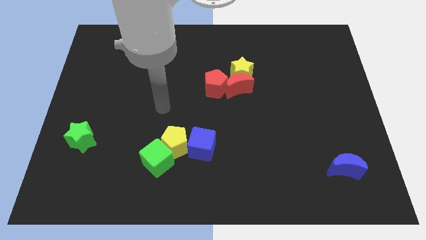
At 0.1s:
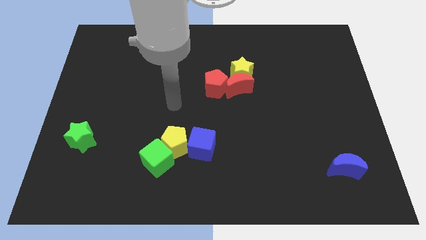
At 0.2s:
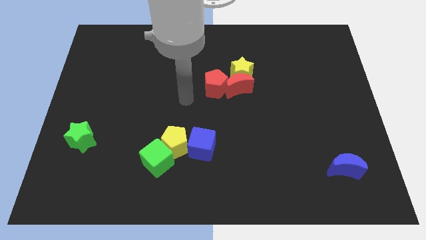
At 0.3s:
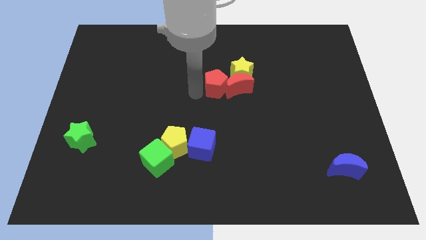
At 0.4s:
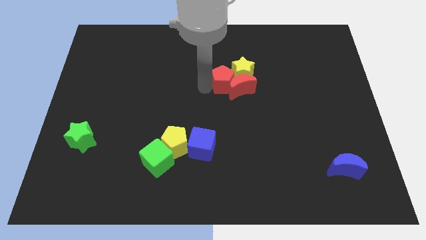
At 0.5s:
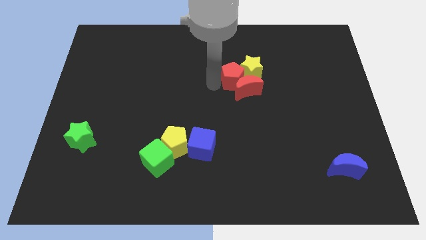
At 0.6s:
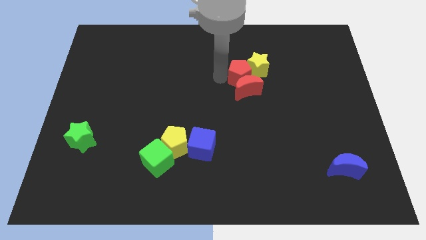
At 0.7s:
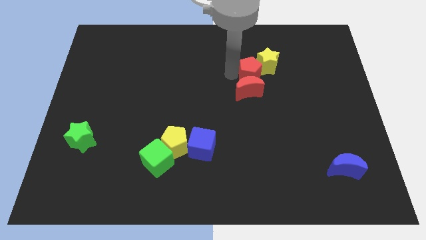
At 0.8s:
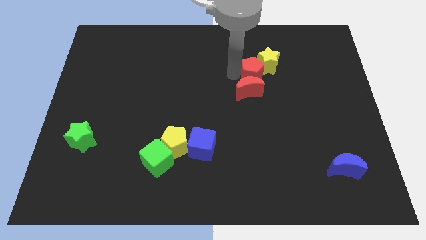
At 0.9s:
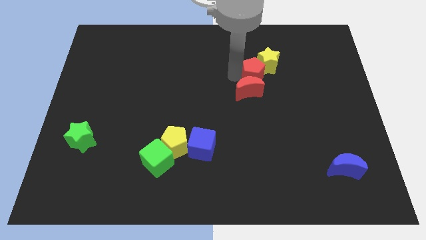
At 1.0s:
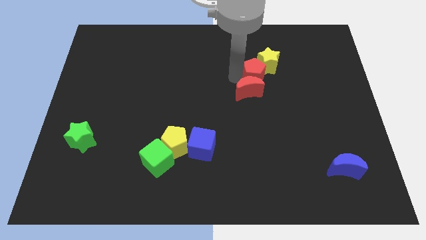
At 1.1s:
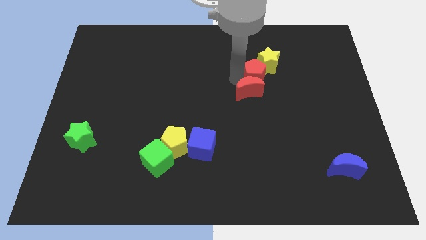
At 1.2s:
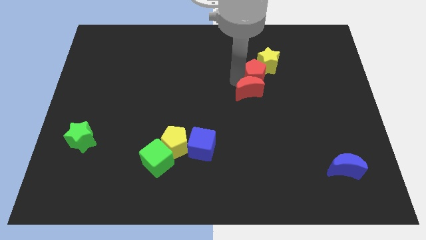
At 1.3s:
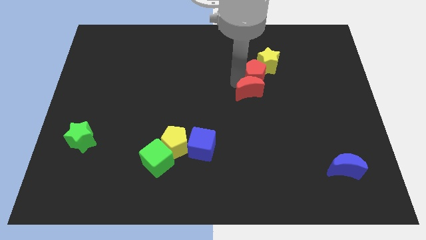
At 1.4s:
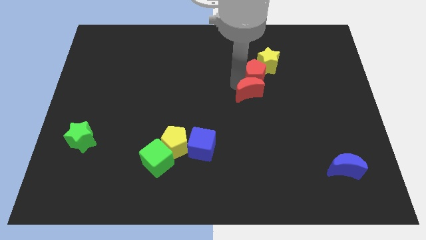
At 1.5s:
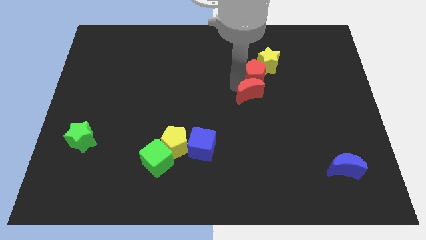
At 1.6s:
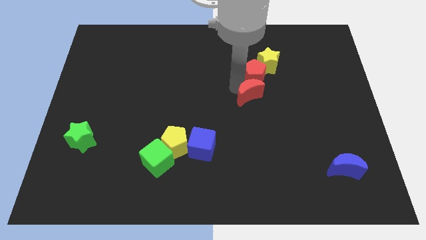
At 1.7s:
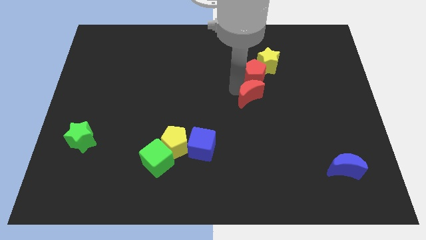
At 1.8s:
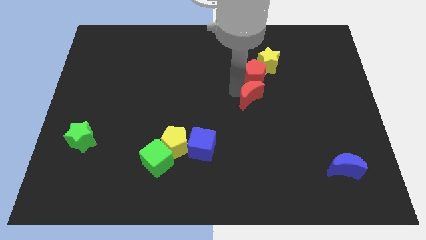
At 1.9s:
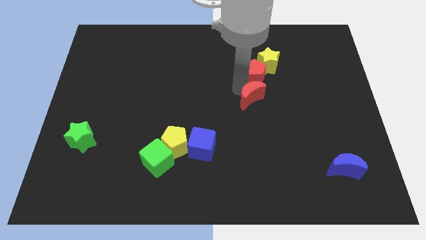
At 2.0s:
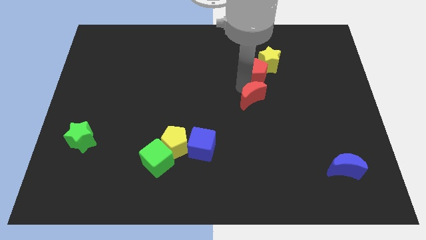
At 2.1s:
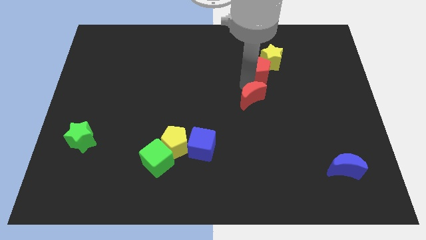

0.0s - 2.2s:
pull the red moon apart from the yellow star and red pentagon

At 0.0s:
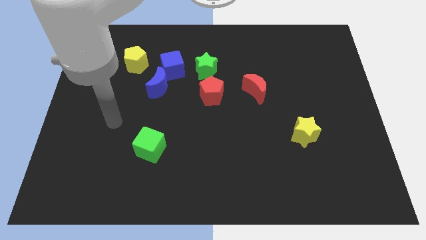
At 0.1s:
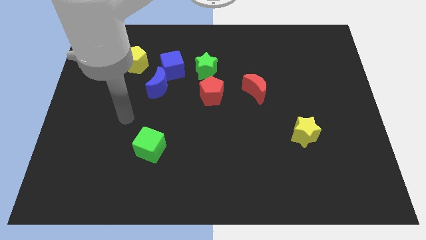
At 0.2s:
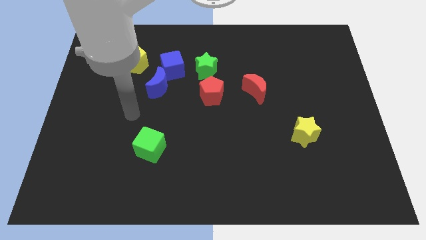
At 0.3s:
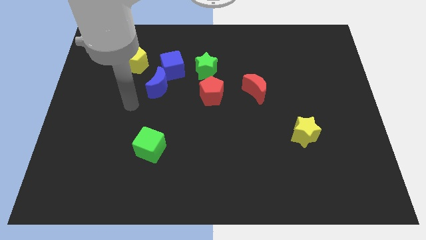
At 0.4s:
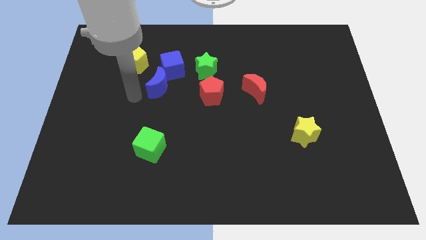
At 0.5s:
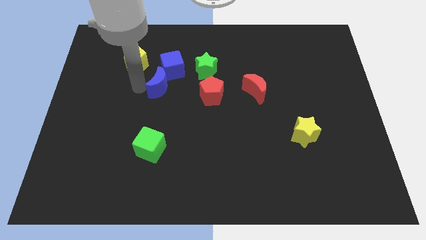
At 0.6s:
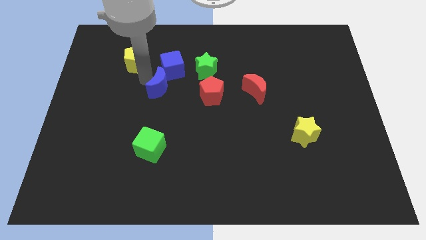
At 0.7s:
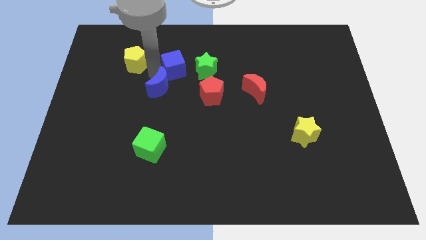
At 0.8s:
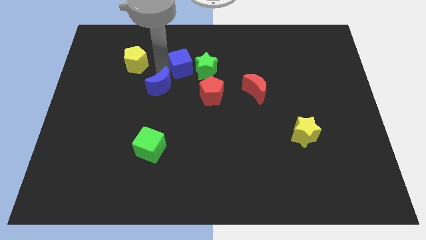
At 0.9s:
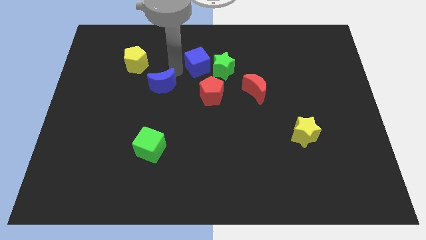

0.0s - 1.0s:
separate the blue moon from the blue cube

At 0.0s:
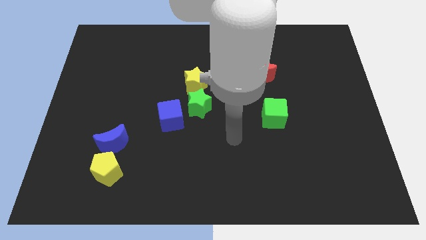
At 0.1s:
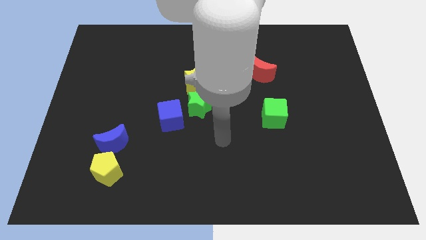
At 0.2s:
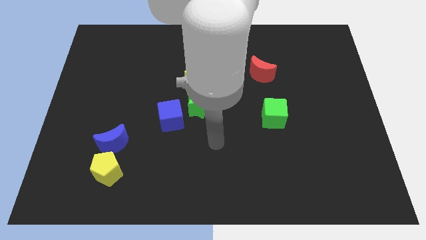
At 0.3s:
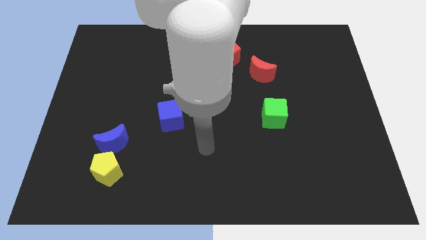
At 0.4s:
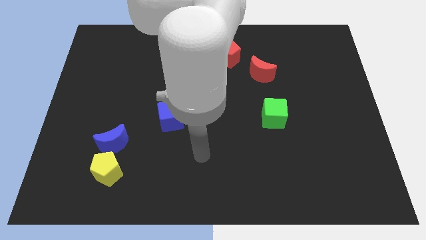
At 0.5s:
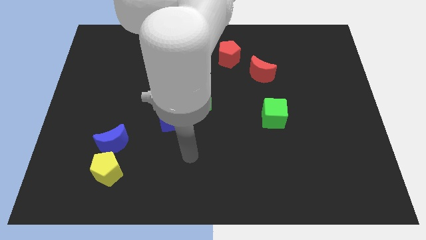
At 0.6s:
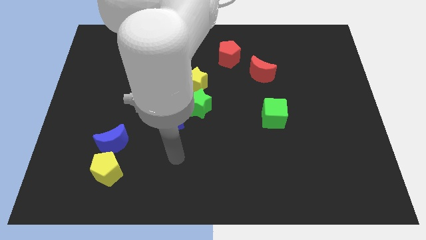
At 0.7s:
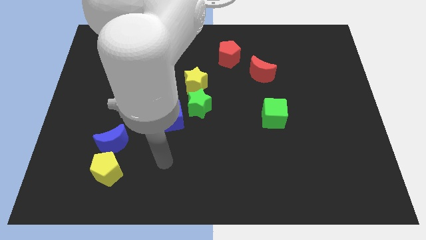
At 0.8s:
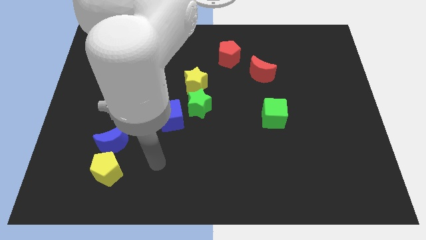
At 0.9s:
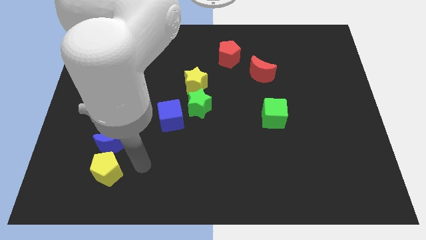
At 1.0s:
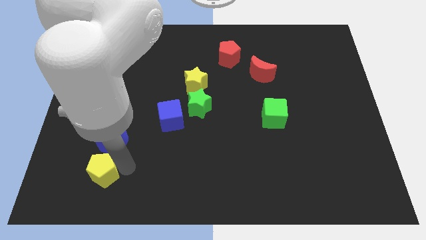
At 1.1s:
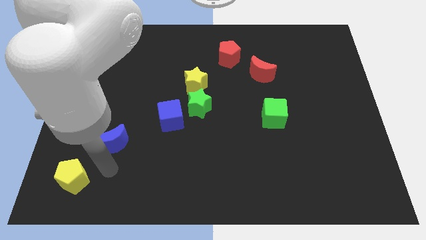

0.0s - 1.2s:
separate the blue moon from the yellow pentagon

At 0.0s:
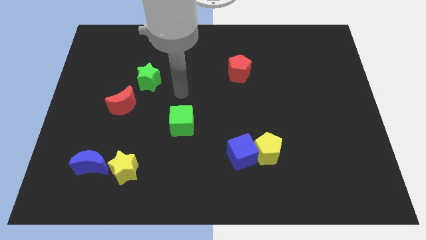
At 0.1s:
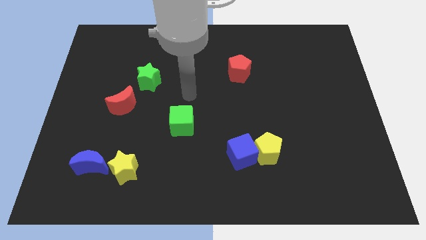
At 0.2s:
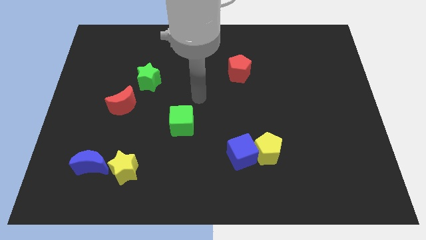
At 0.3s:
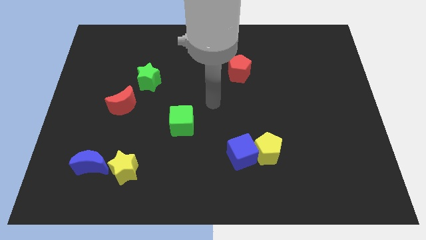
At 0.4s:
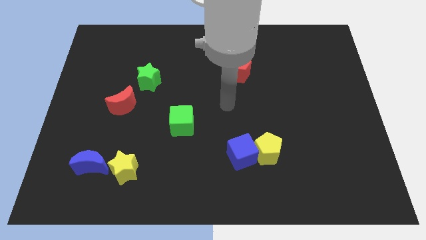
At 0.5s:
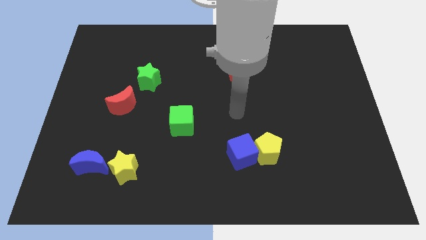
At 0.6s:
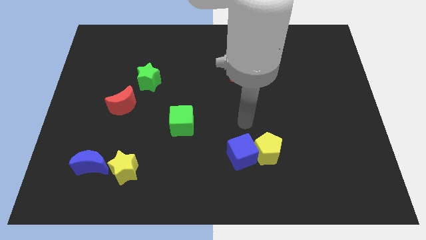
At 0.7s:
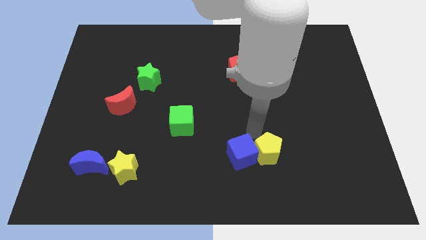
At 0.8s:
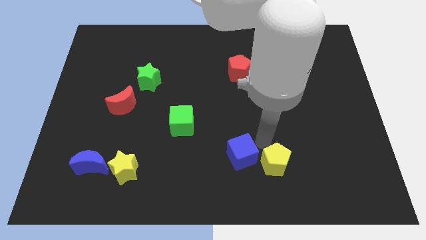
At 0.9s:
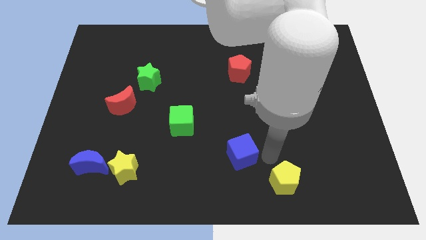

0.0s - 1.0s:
separate the blue cube from the yellow pentagon

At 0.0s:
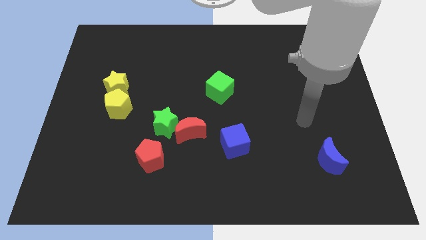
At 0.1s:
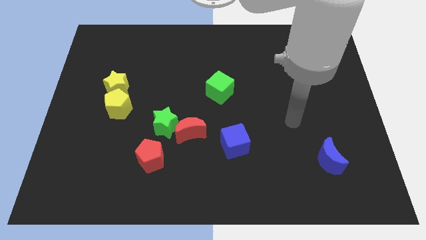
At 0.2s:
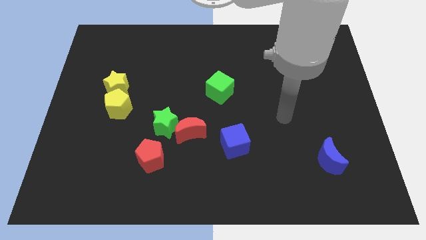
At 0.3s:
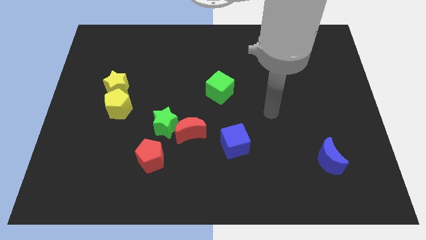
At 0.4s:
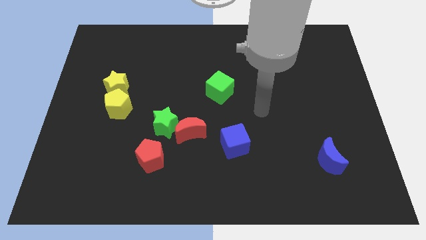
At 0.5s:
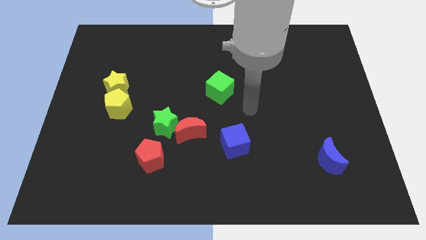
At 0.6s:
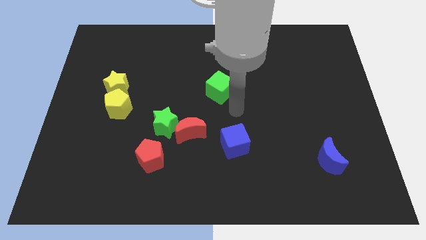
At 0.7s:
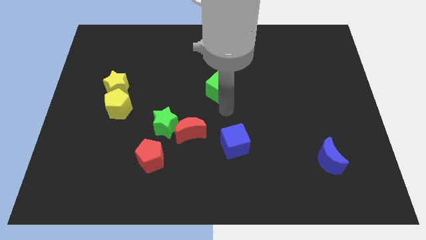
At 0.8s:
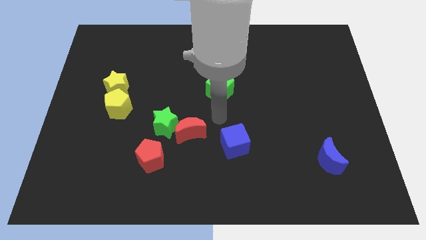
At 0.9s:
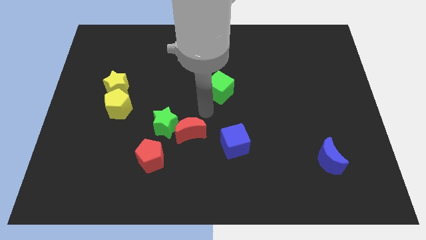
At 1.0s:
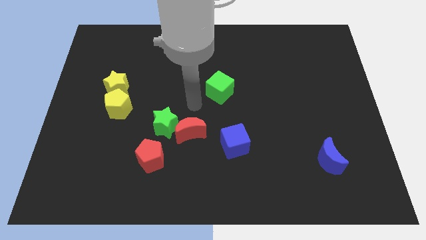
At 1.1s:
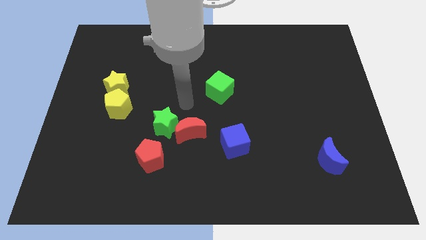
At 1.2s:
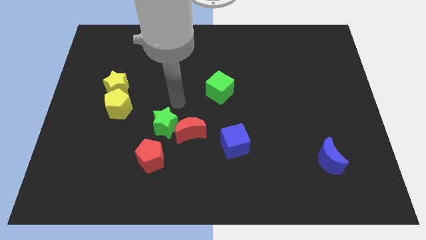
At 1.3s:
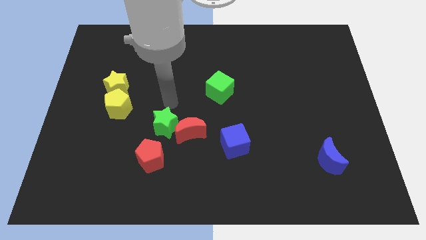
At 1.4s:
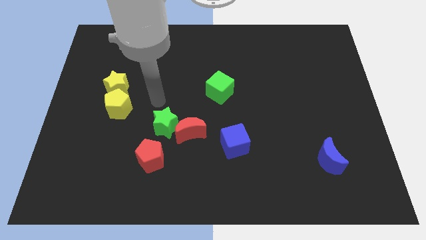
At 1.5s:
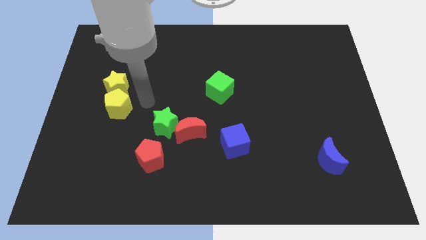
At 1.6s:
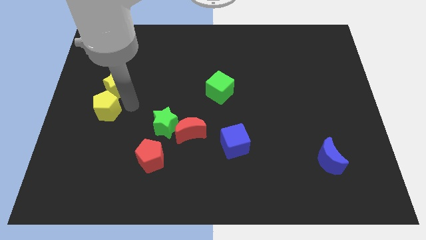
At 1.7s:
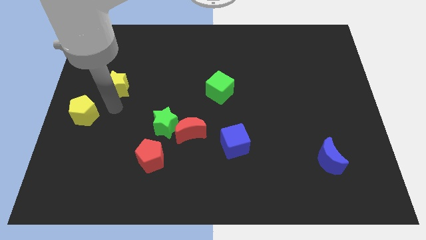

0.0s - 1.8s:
move the yellow star away from the yellow pentagon

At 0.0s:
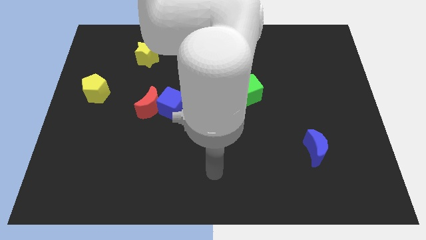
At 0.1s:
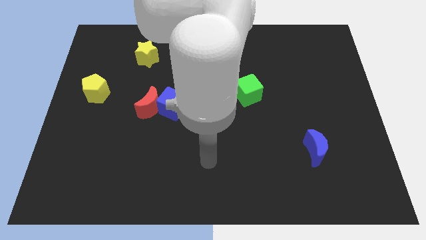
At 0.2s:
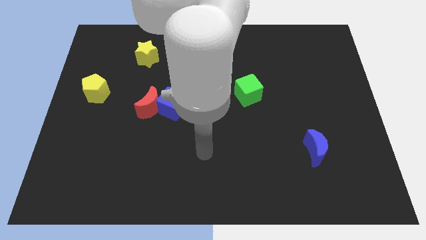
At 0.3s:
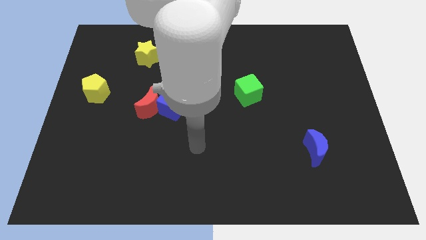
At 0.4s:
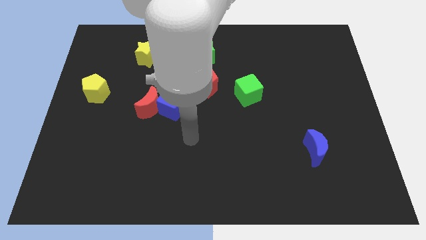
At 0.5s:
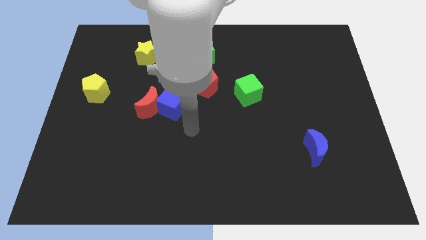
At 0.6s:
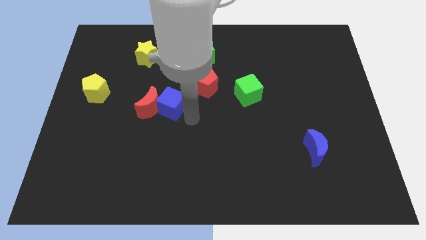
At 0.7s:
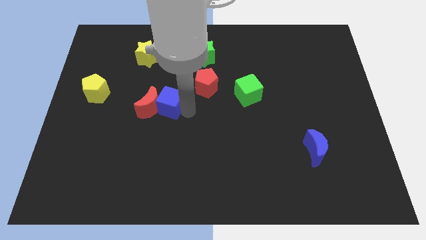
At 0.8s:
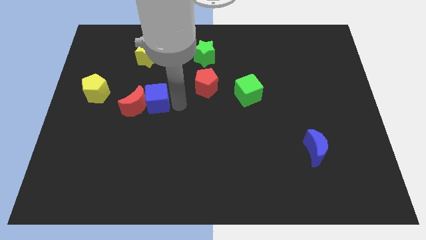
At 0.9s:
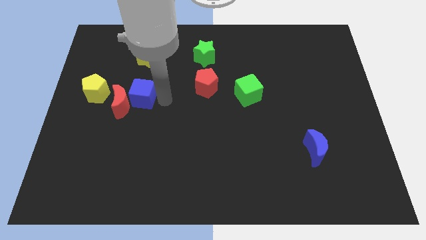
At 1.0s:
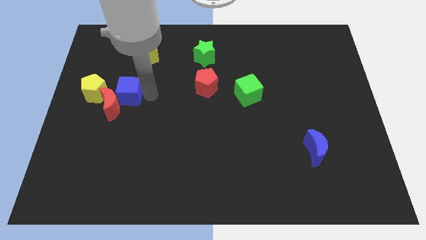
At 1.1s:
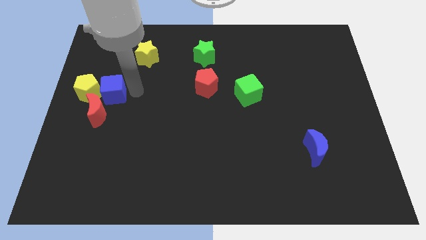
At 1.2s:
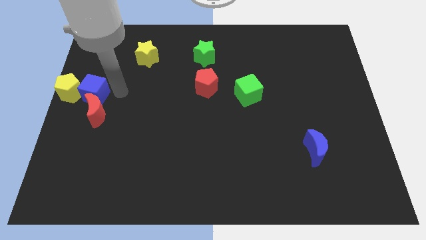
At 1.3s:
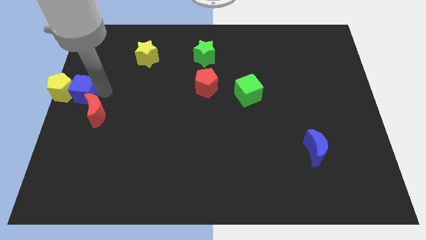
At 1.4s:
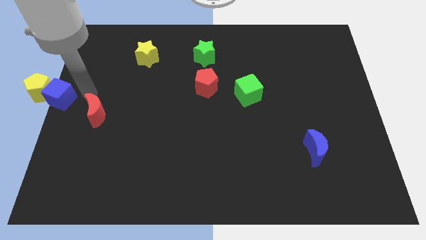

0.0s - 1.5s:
move the red moon away from the blue cube

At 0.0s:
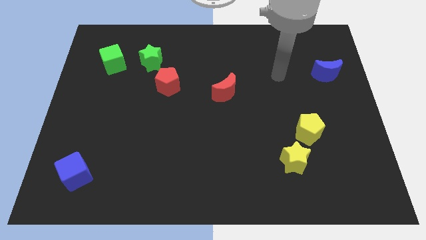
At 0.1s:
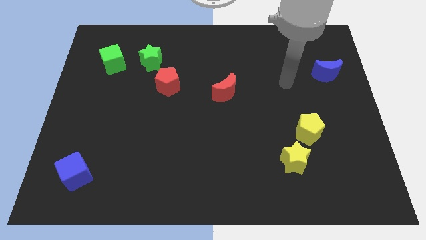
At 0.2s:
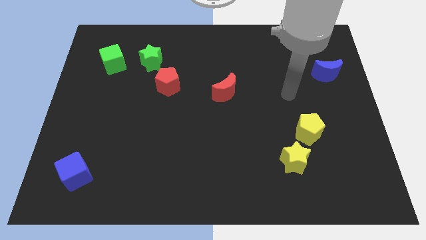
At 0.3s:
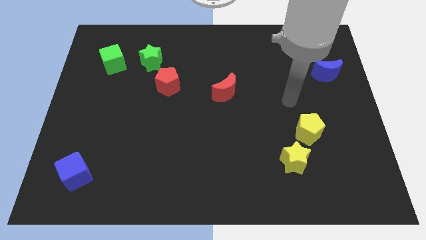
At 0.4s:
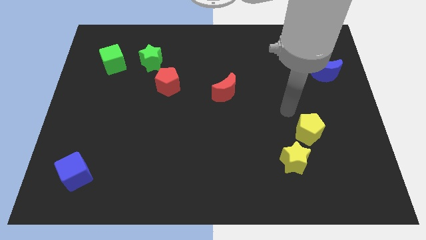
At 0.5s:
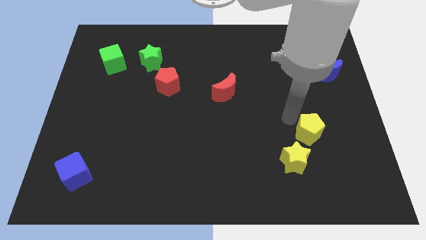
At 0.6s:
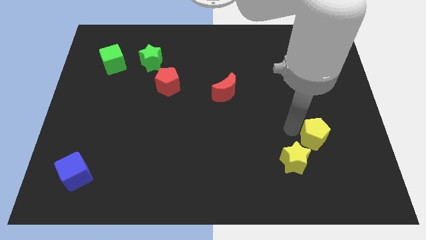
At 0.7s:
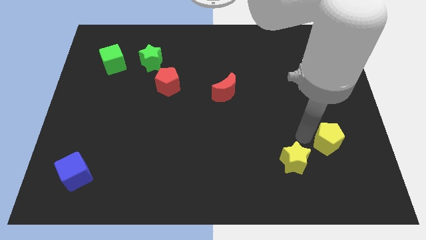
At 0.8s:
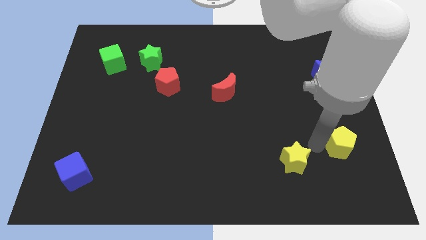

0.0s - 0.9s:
separate the yellow star from the yellow pentagon
